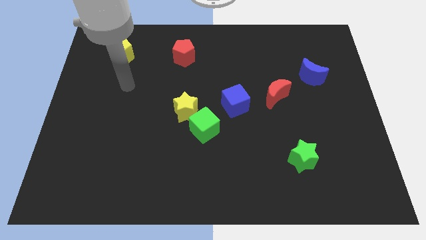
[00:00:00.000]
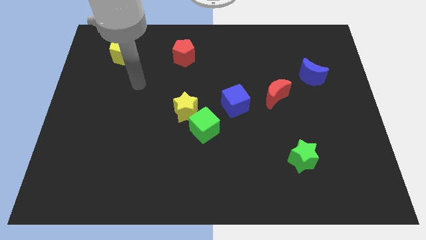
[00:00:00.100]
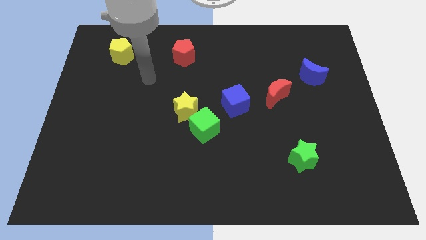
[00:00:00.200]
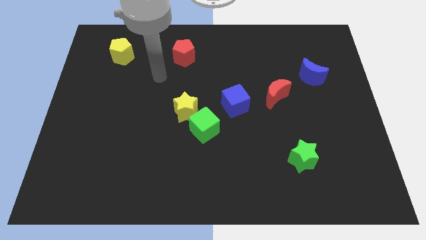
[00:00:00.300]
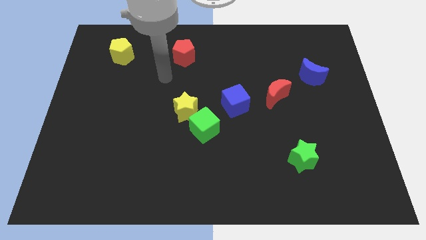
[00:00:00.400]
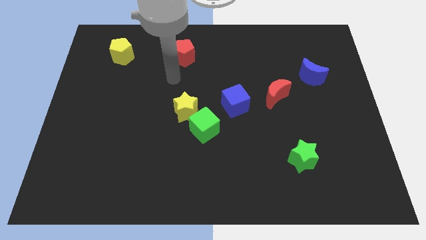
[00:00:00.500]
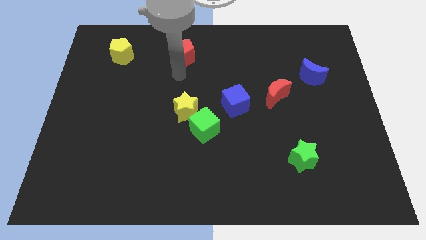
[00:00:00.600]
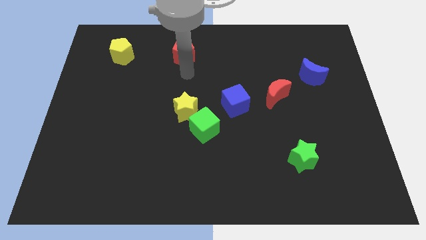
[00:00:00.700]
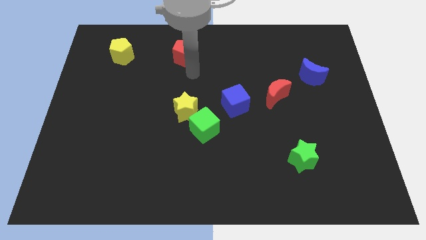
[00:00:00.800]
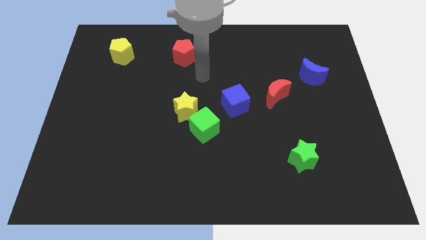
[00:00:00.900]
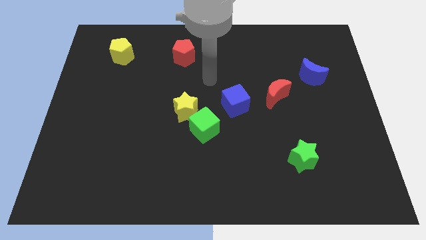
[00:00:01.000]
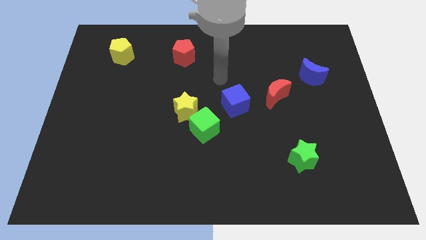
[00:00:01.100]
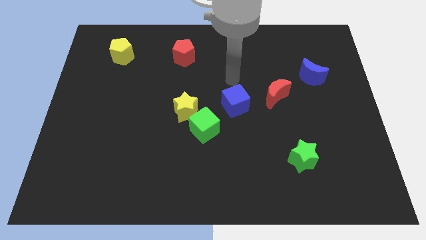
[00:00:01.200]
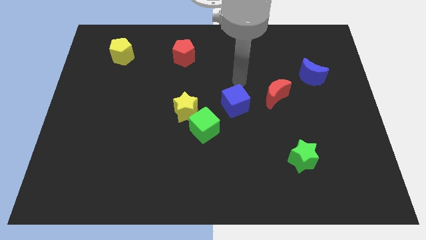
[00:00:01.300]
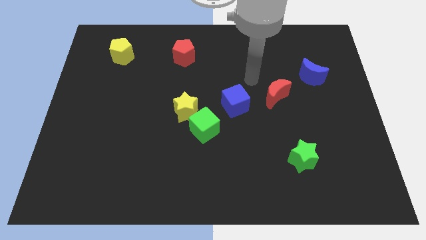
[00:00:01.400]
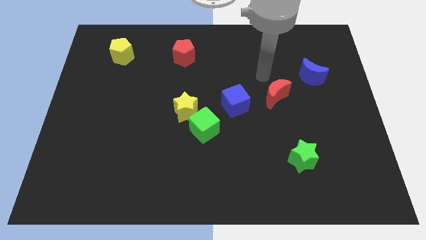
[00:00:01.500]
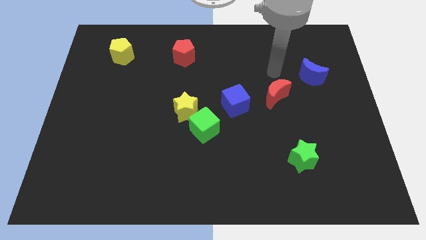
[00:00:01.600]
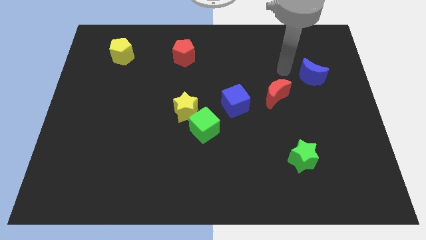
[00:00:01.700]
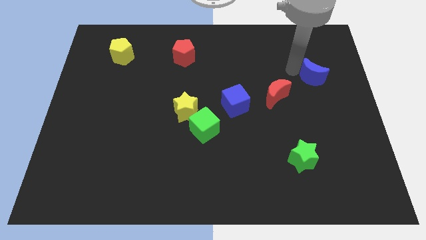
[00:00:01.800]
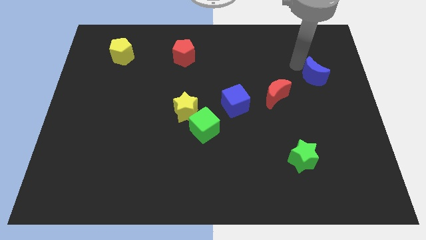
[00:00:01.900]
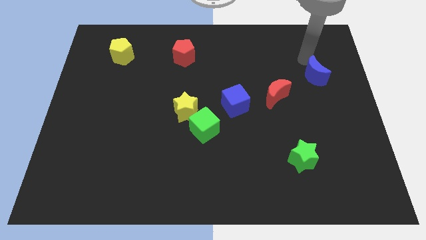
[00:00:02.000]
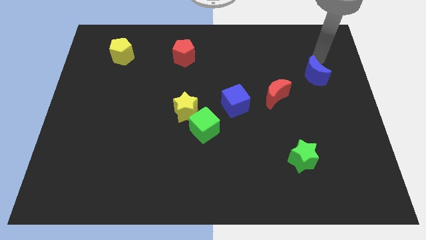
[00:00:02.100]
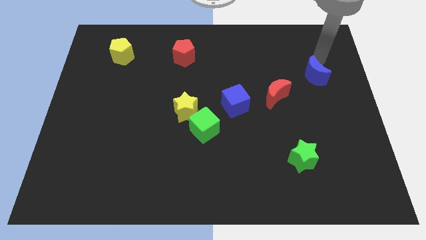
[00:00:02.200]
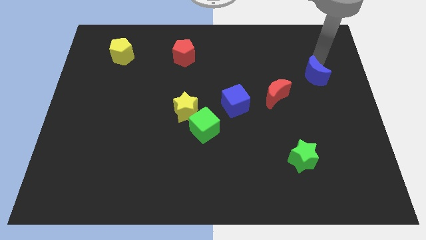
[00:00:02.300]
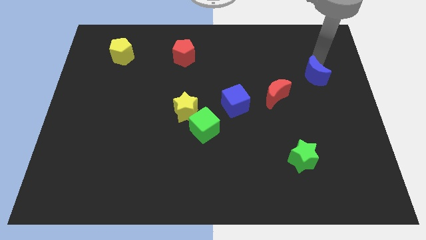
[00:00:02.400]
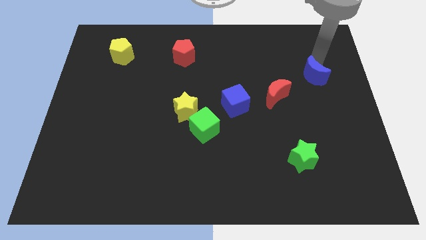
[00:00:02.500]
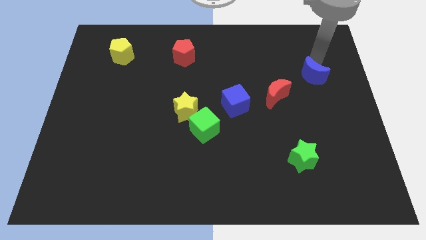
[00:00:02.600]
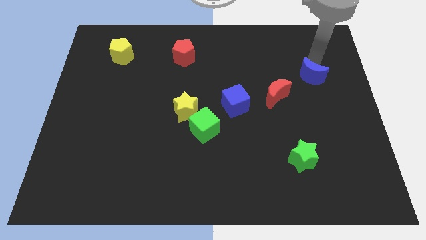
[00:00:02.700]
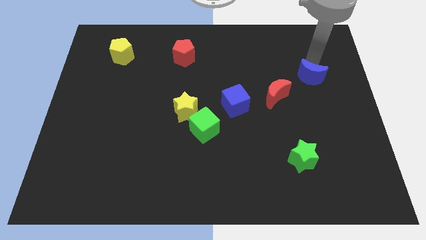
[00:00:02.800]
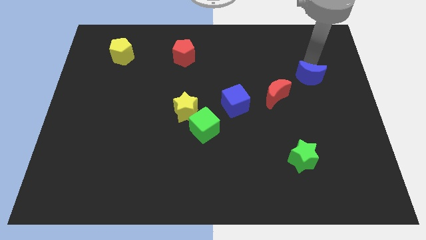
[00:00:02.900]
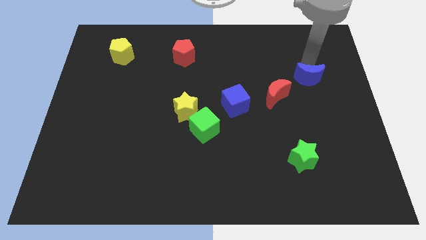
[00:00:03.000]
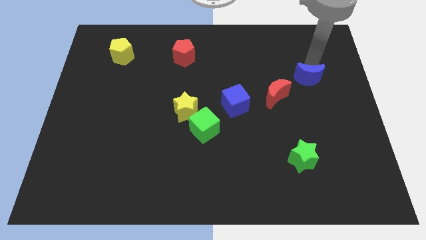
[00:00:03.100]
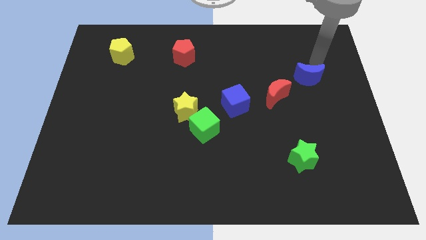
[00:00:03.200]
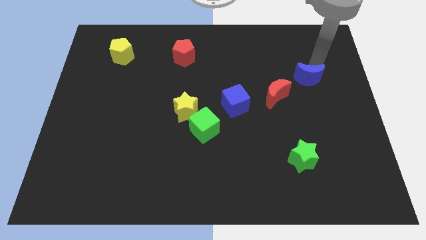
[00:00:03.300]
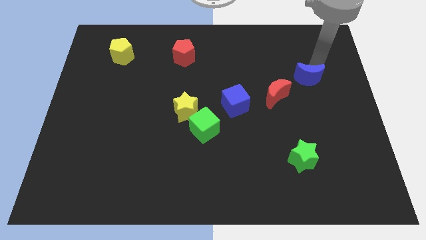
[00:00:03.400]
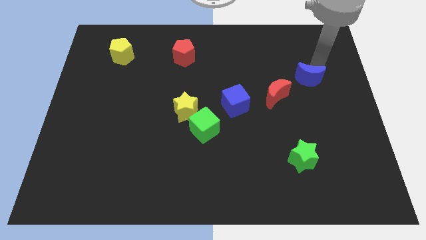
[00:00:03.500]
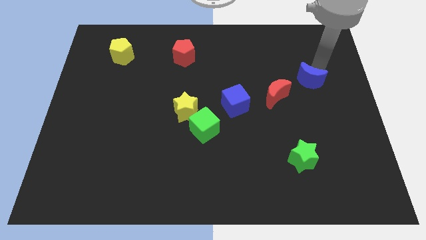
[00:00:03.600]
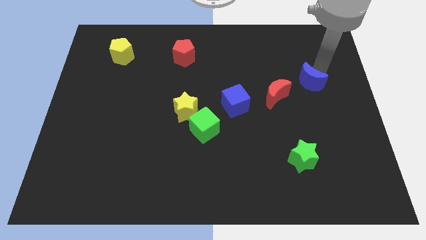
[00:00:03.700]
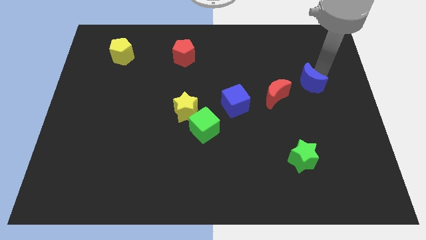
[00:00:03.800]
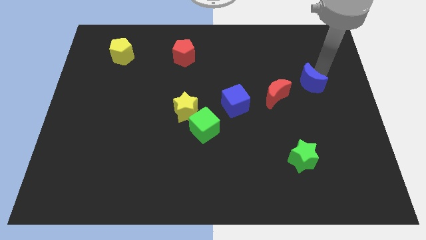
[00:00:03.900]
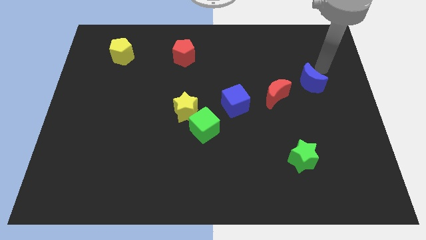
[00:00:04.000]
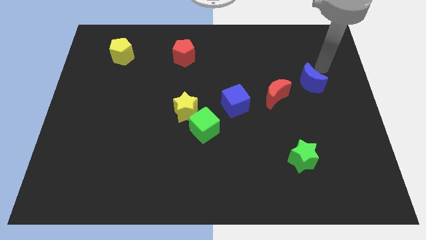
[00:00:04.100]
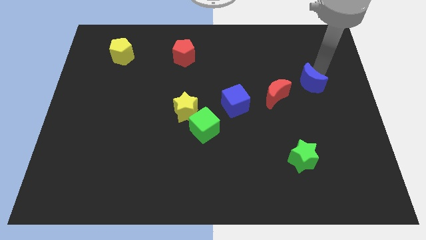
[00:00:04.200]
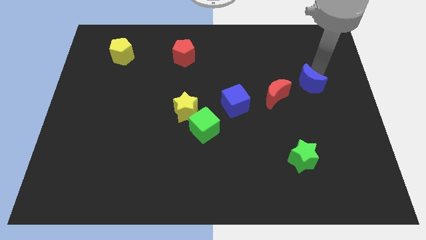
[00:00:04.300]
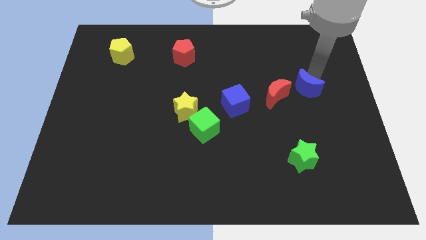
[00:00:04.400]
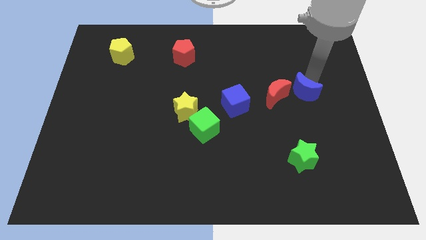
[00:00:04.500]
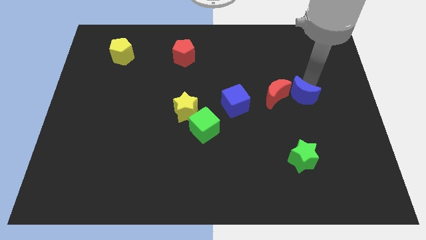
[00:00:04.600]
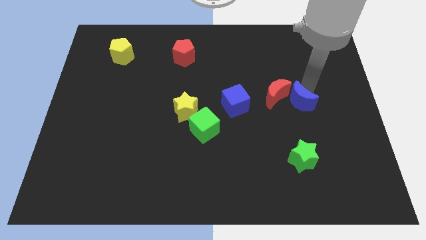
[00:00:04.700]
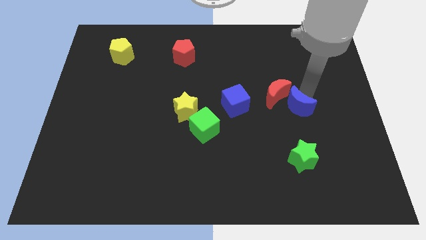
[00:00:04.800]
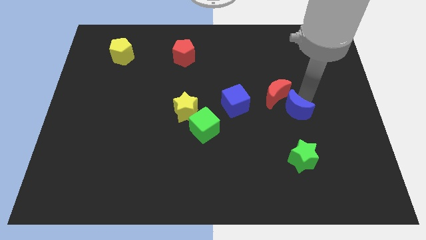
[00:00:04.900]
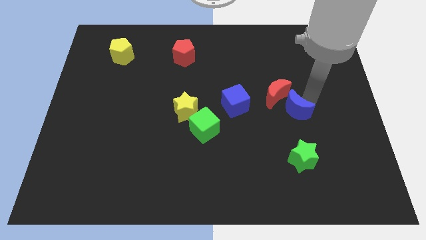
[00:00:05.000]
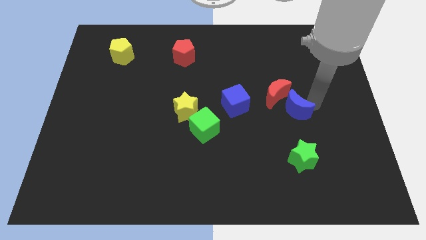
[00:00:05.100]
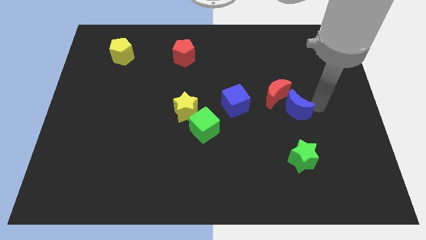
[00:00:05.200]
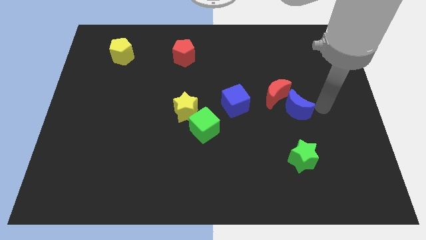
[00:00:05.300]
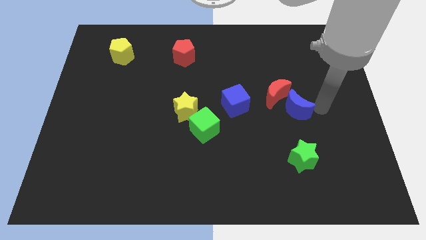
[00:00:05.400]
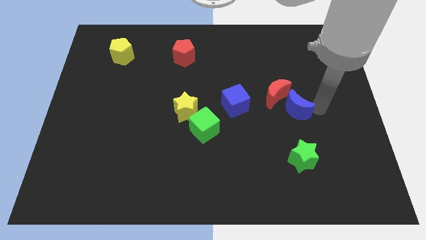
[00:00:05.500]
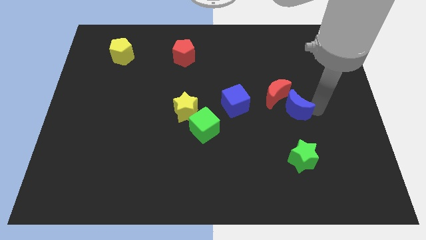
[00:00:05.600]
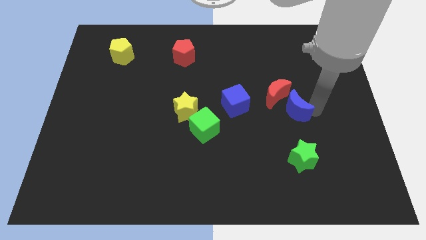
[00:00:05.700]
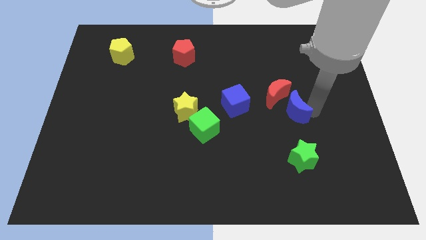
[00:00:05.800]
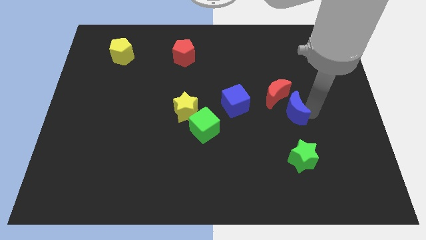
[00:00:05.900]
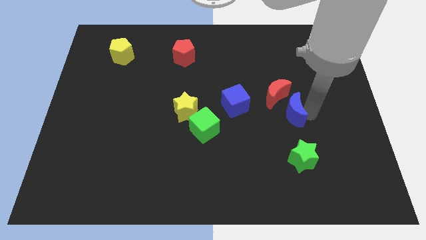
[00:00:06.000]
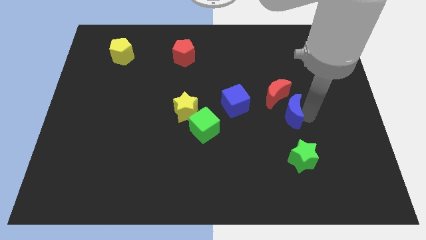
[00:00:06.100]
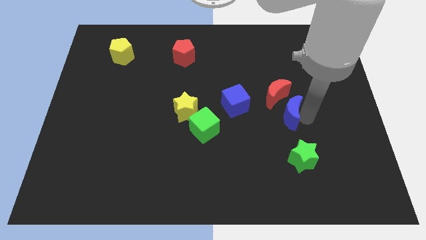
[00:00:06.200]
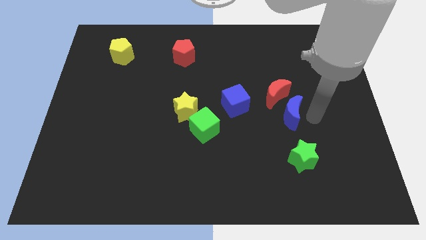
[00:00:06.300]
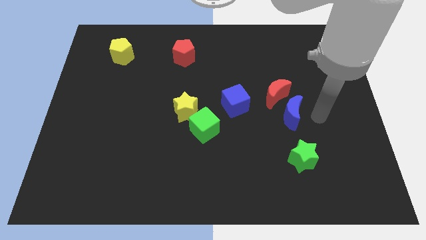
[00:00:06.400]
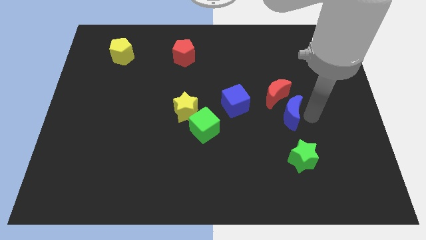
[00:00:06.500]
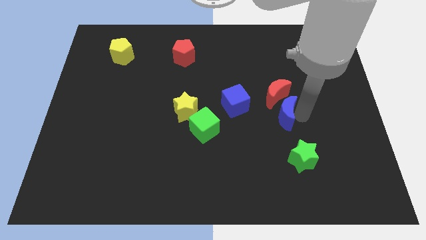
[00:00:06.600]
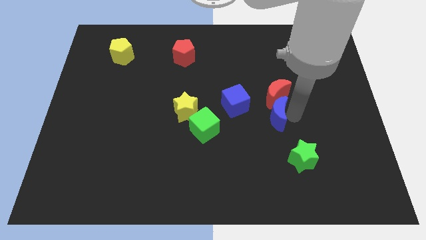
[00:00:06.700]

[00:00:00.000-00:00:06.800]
push the blue moon to the bottom left of the red moon
